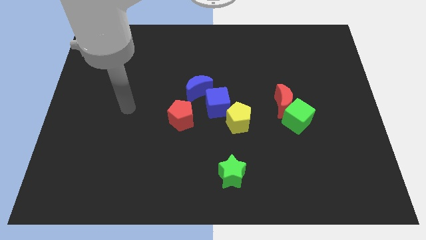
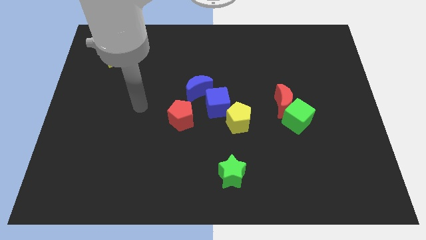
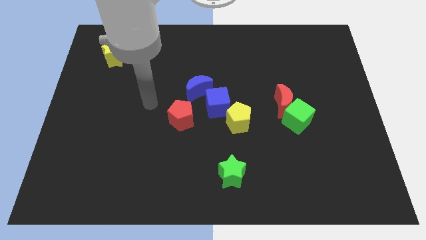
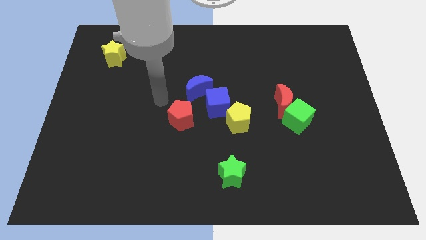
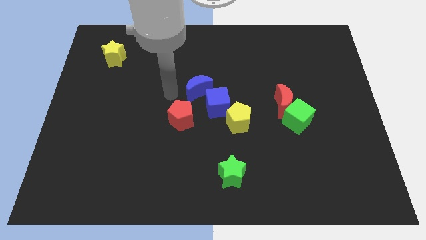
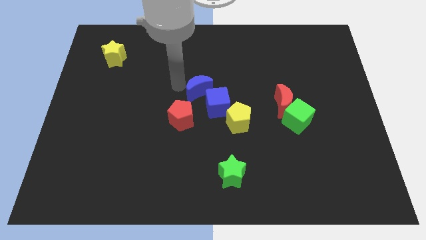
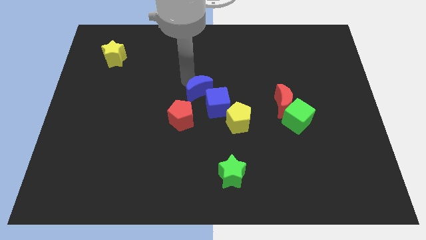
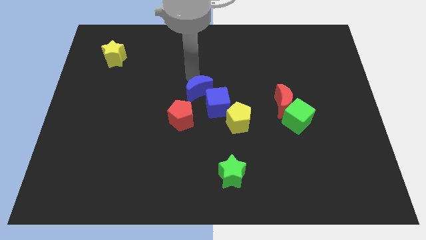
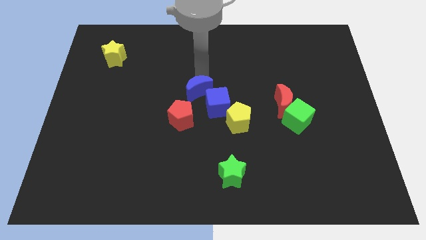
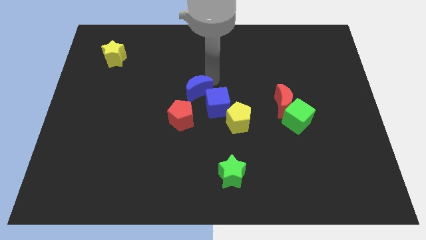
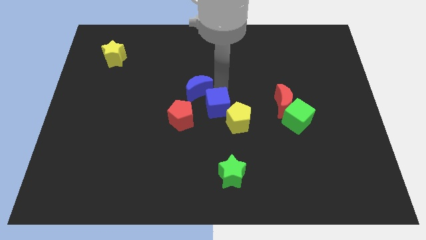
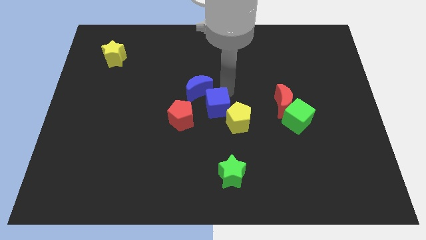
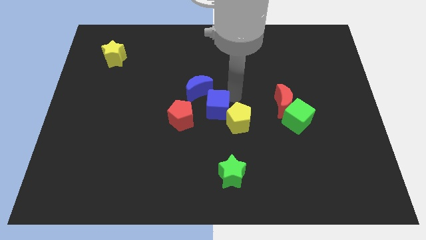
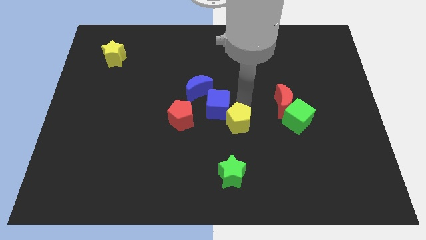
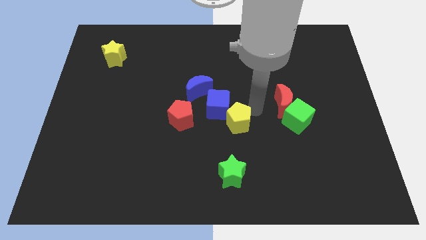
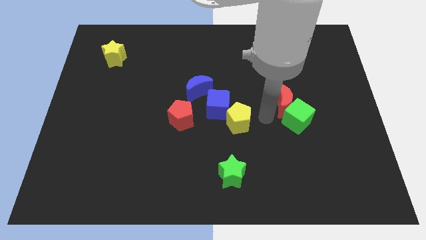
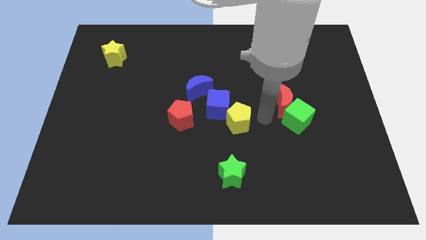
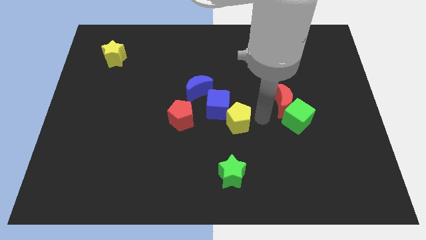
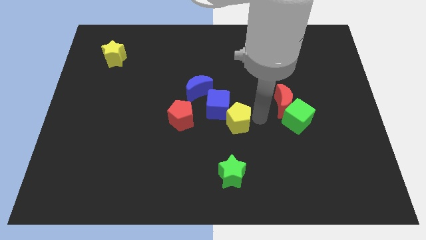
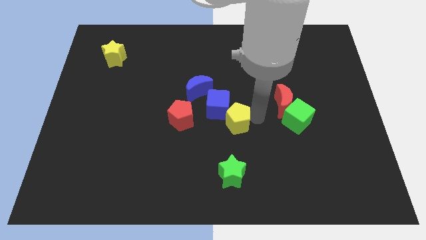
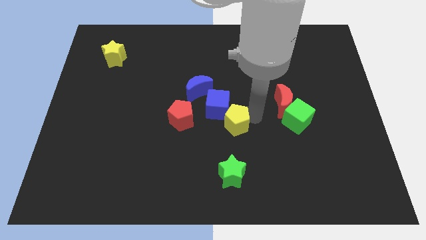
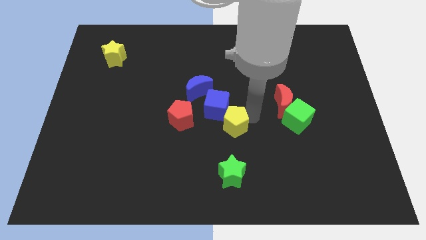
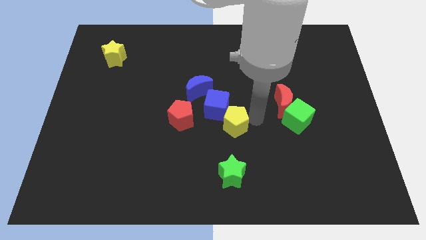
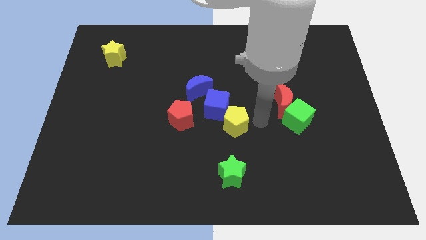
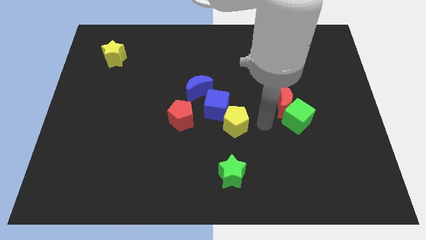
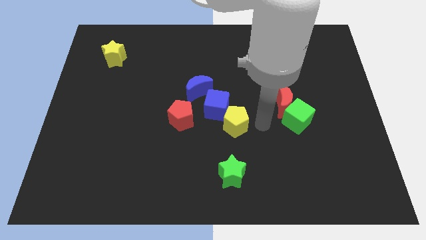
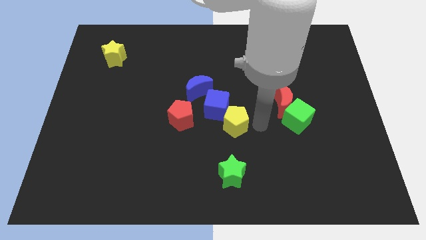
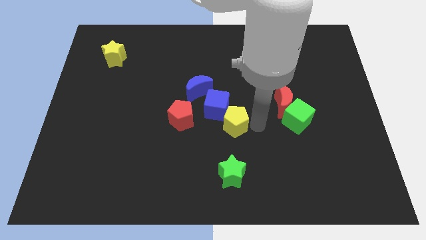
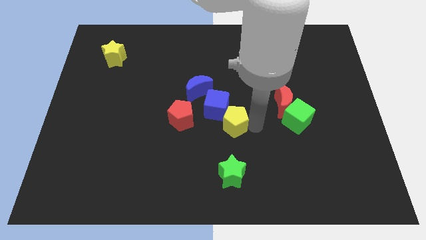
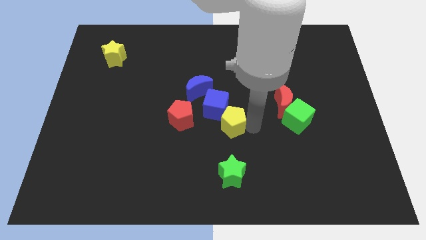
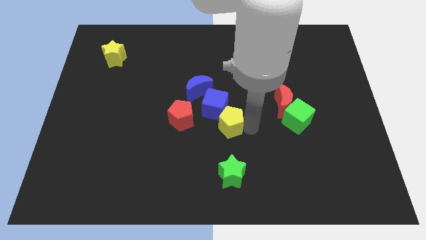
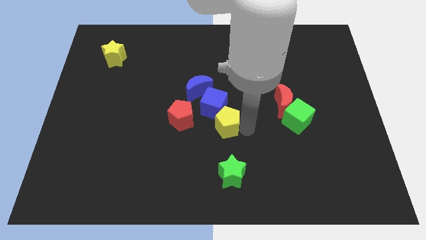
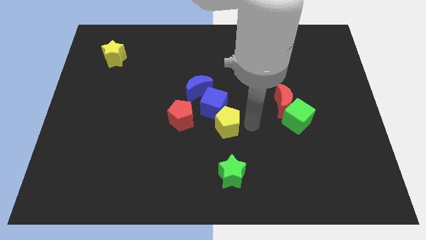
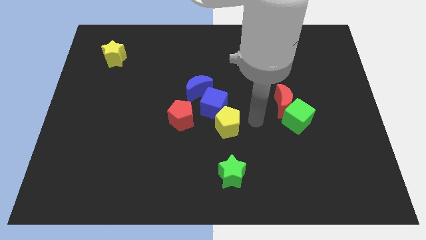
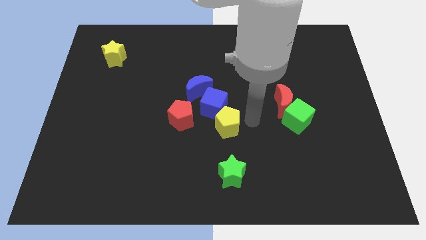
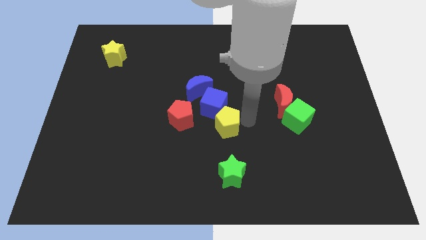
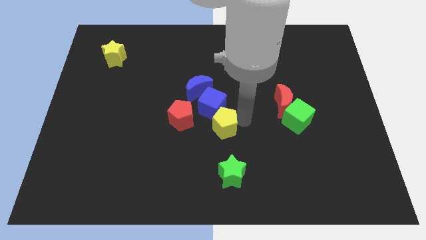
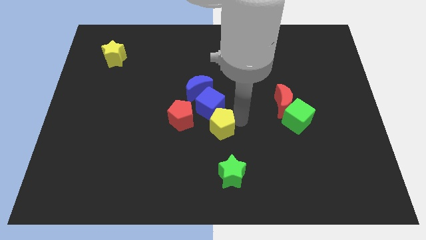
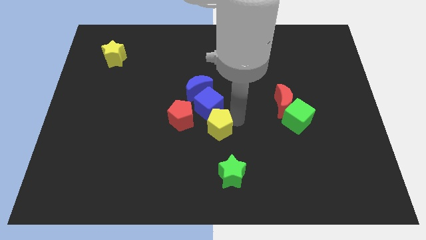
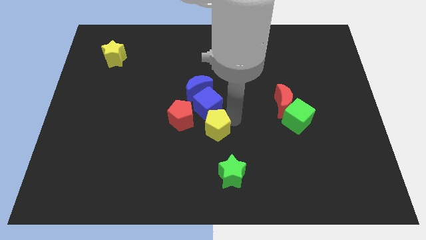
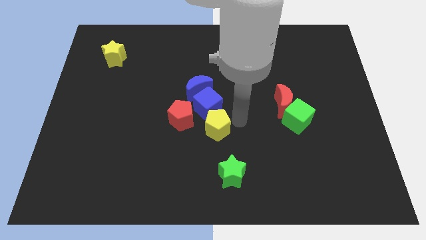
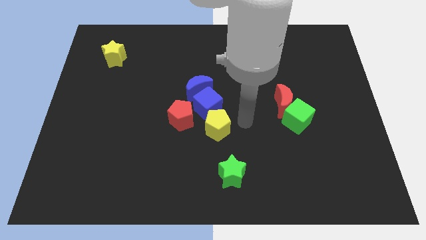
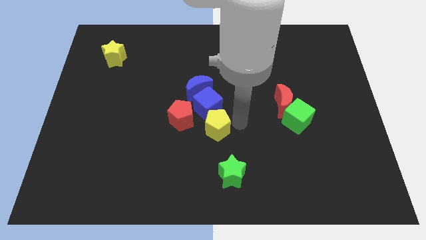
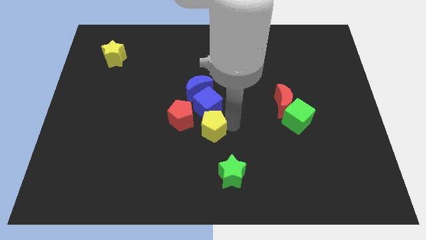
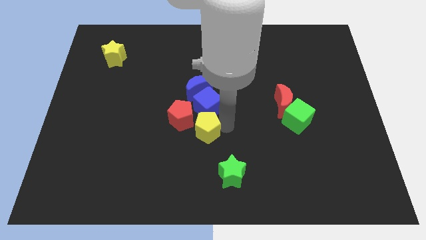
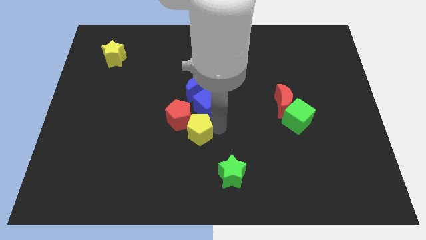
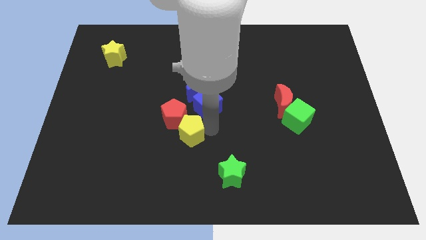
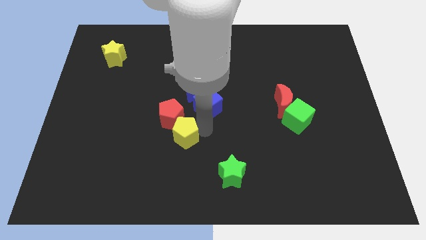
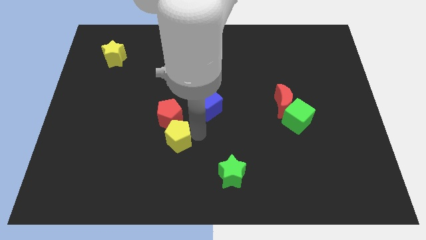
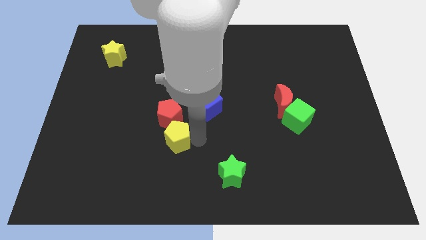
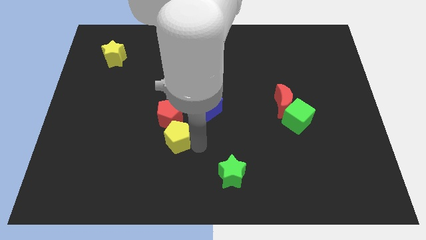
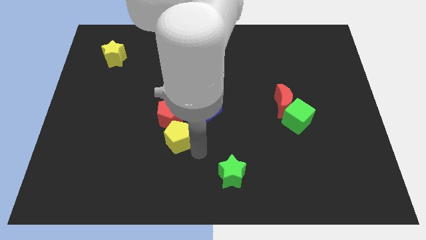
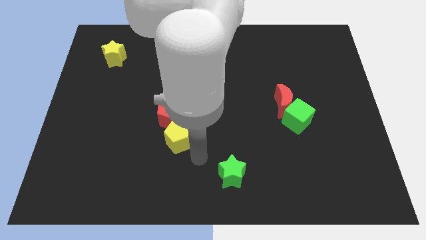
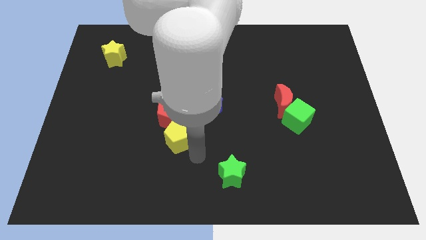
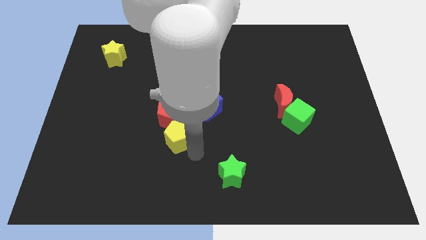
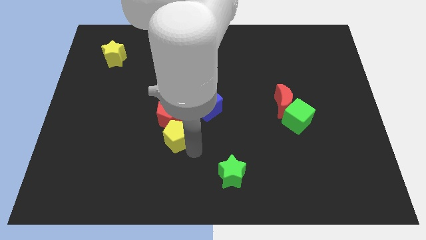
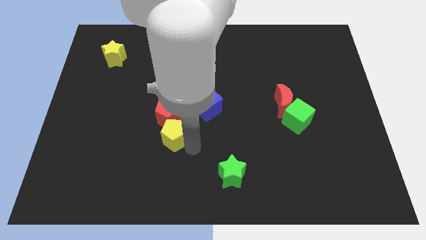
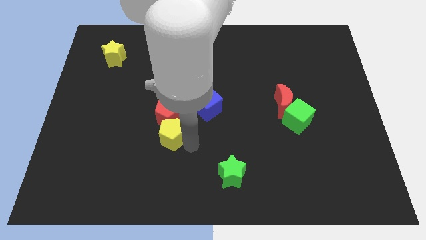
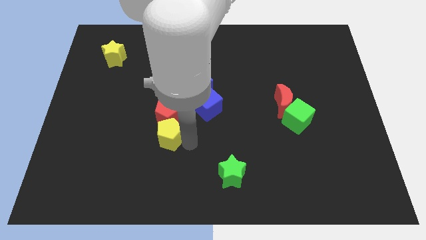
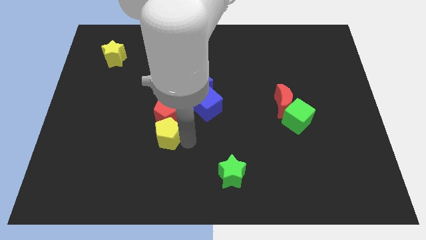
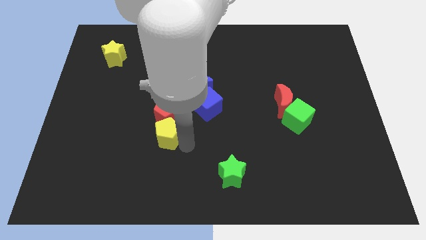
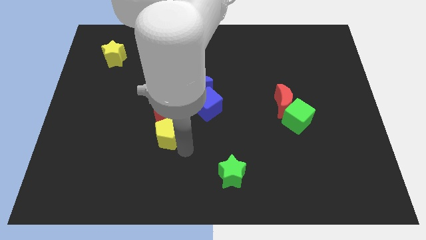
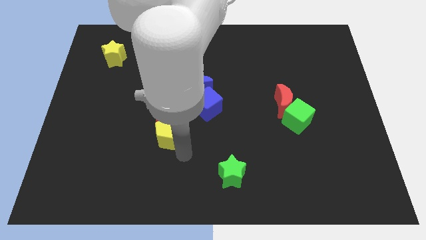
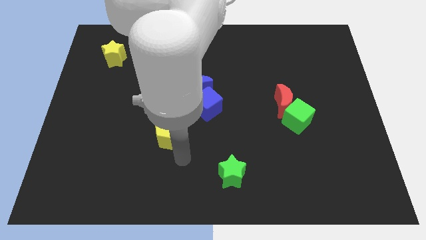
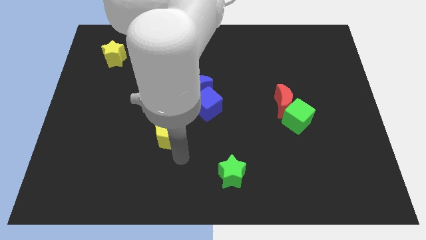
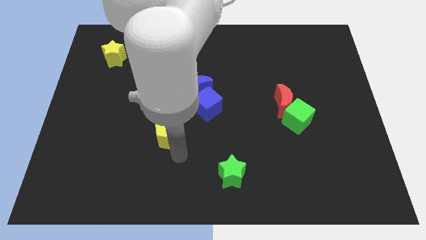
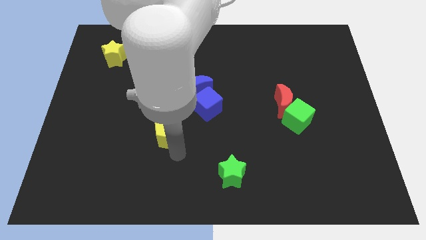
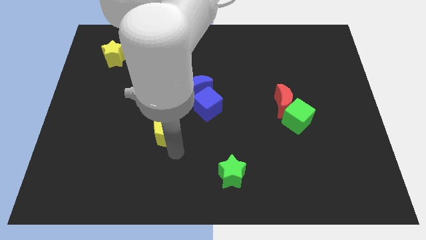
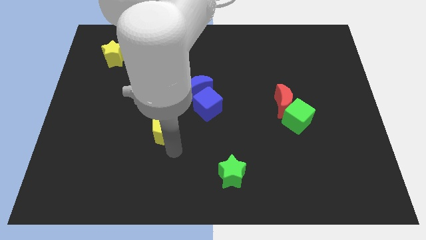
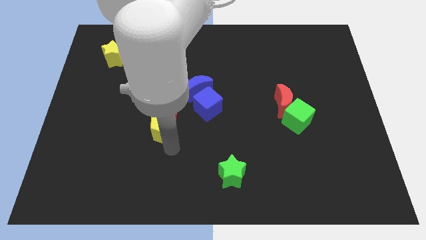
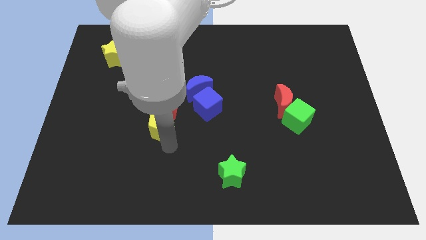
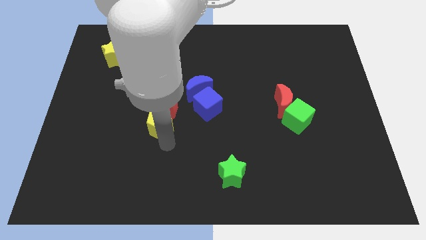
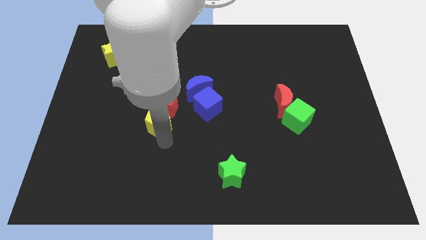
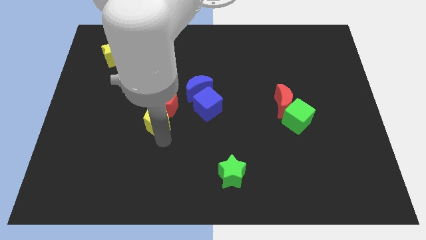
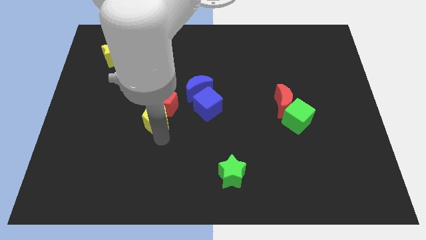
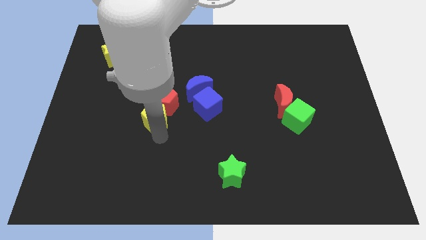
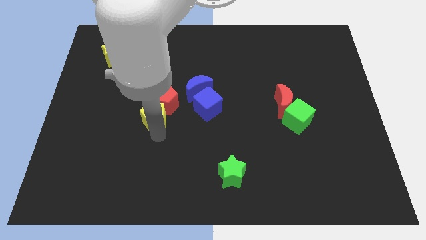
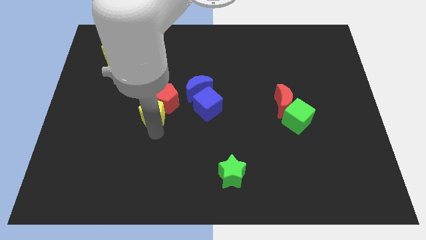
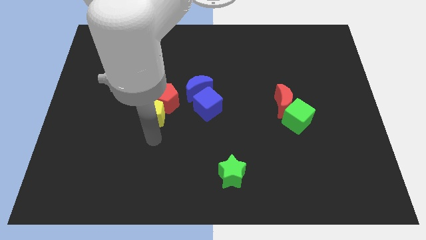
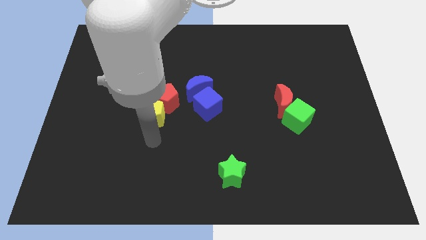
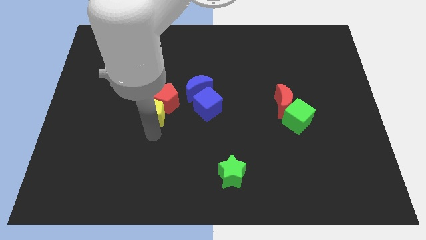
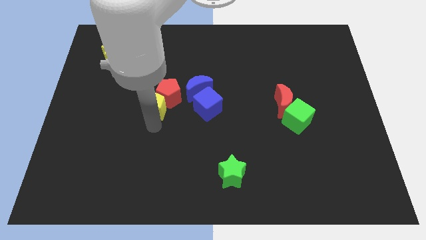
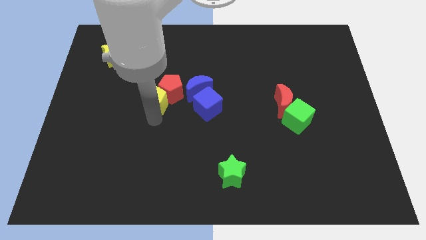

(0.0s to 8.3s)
move the yellow pentagon just left of the blue moon
